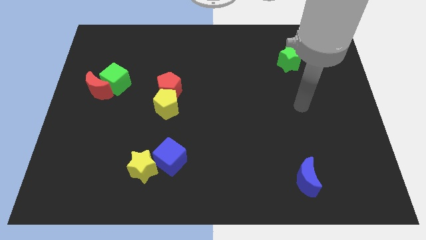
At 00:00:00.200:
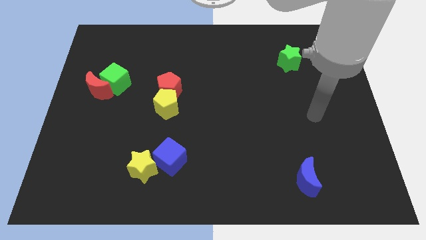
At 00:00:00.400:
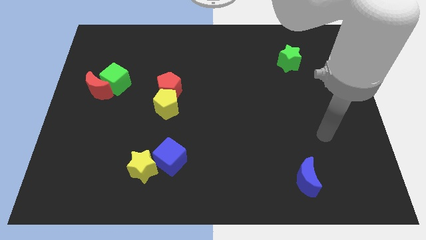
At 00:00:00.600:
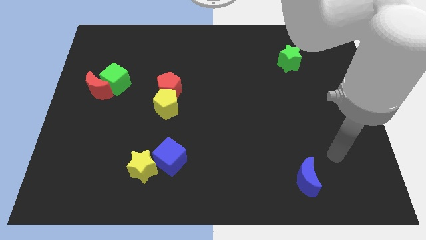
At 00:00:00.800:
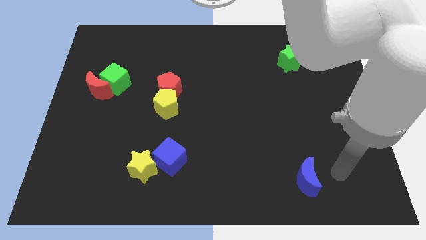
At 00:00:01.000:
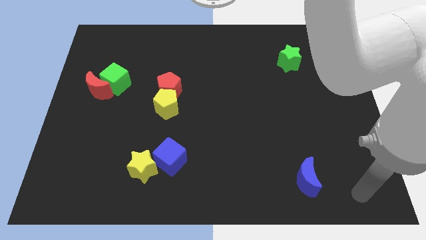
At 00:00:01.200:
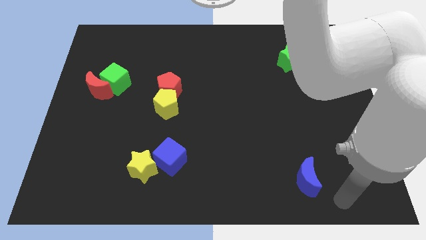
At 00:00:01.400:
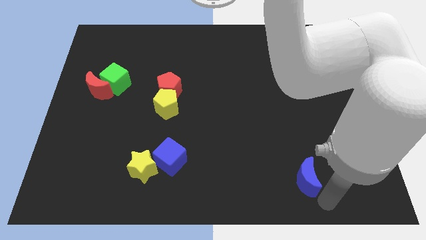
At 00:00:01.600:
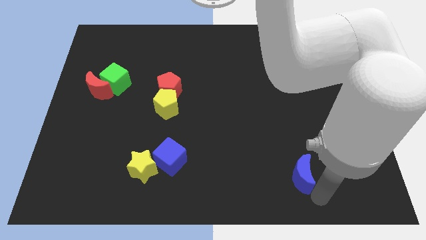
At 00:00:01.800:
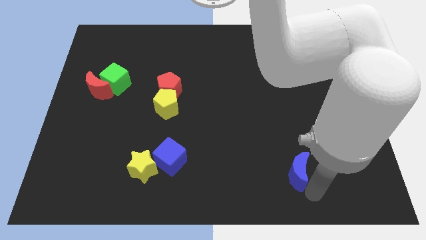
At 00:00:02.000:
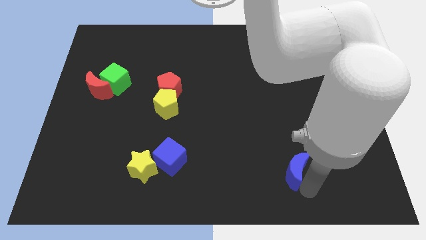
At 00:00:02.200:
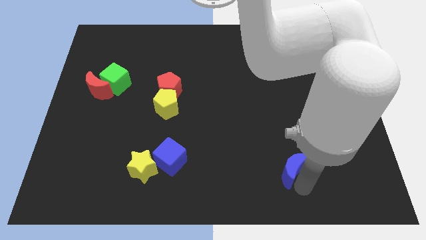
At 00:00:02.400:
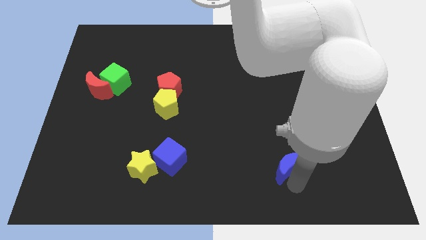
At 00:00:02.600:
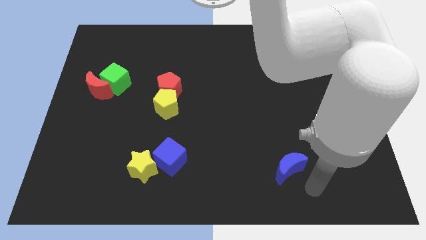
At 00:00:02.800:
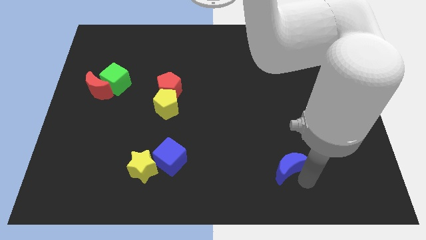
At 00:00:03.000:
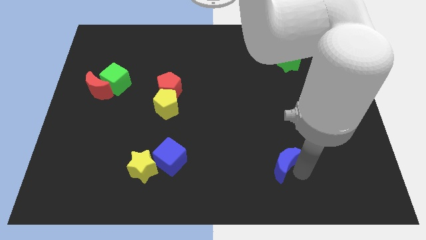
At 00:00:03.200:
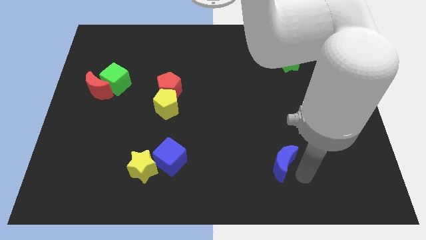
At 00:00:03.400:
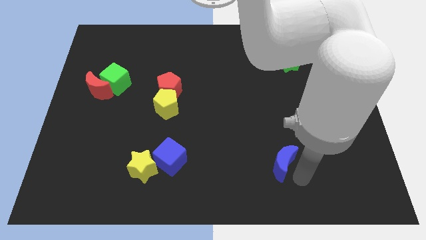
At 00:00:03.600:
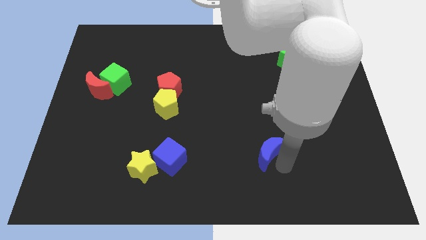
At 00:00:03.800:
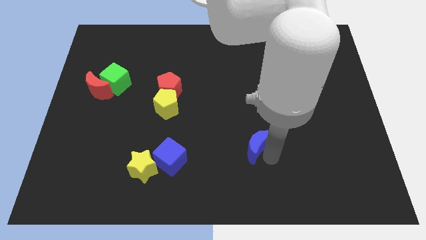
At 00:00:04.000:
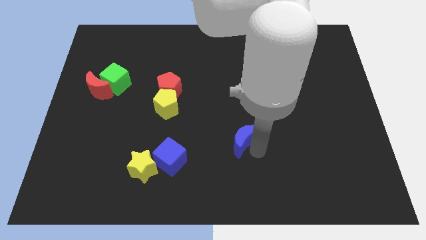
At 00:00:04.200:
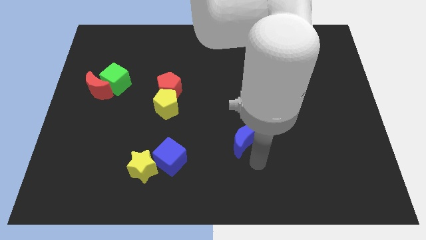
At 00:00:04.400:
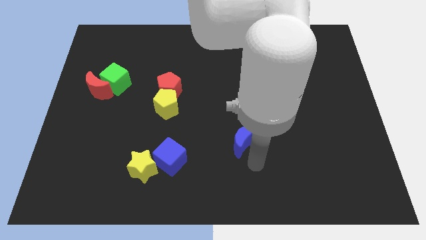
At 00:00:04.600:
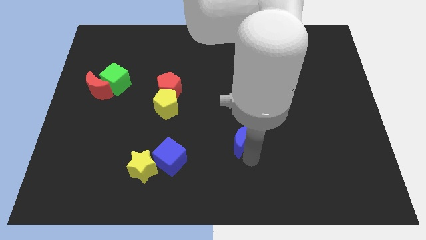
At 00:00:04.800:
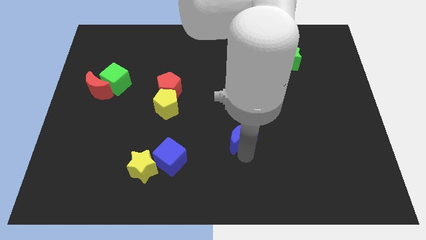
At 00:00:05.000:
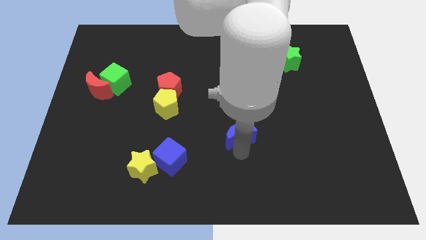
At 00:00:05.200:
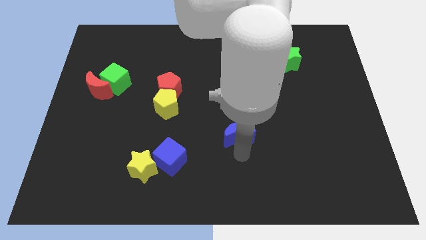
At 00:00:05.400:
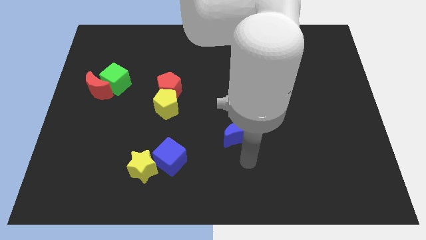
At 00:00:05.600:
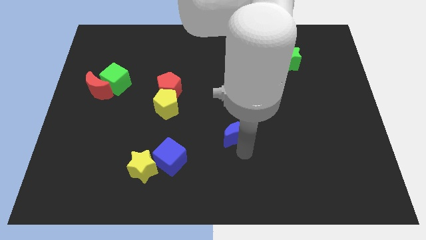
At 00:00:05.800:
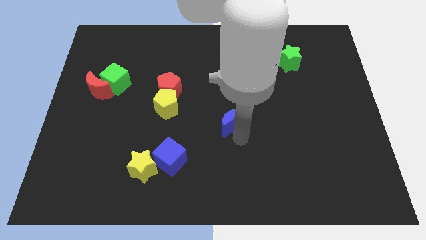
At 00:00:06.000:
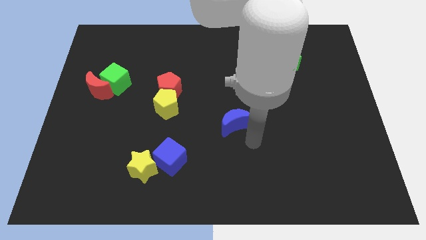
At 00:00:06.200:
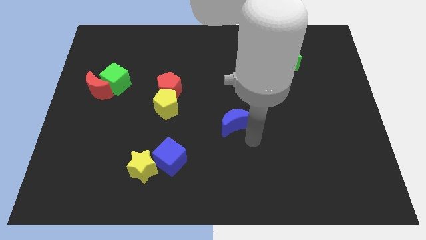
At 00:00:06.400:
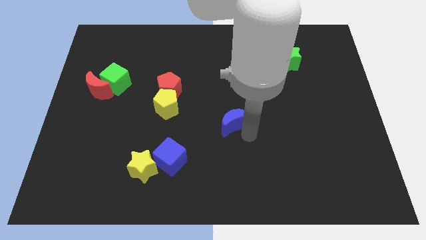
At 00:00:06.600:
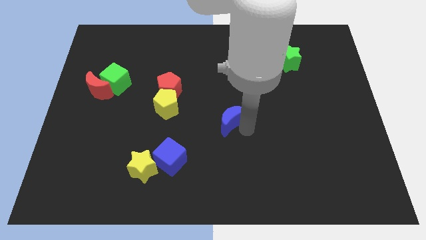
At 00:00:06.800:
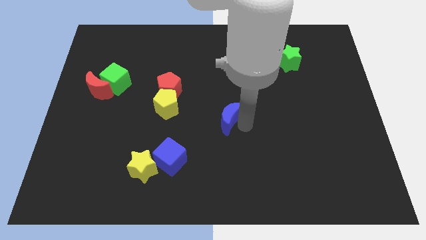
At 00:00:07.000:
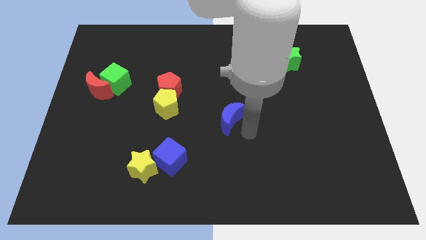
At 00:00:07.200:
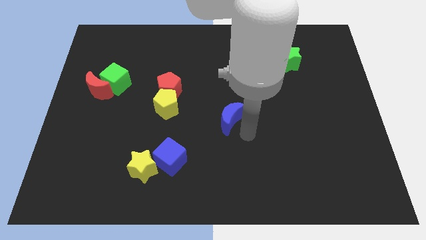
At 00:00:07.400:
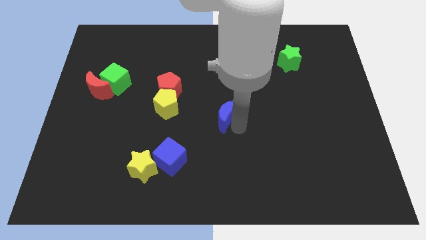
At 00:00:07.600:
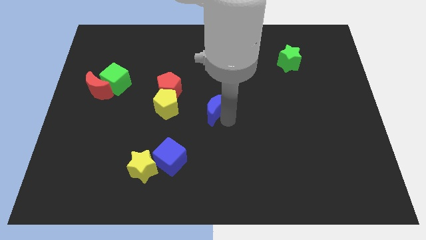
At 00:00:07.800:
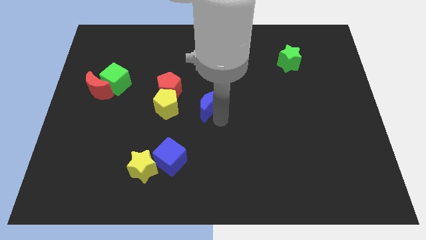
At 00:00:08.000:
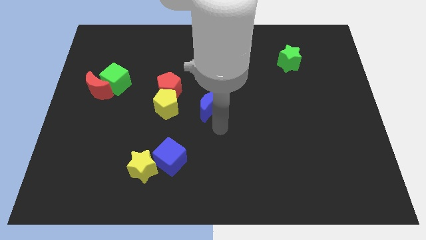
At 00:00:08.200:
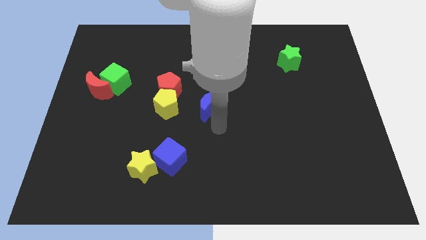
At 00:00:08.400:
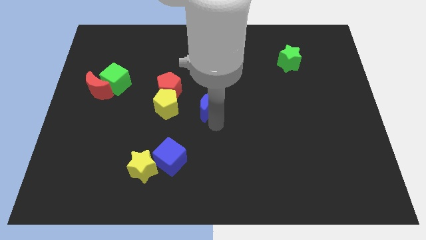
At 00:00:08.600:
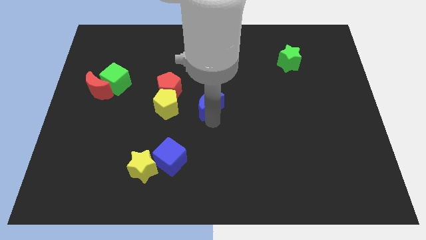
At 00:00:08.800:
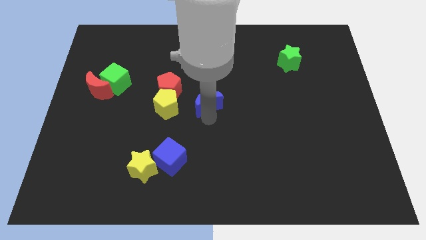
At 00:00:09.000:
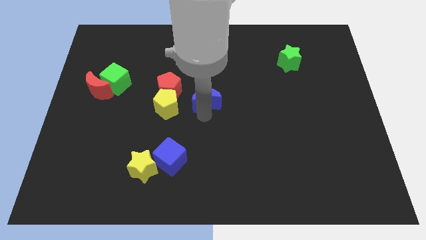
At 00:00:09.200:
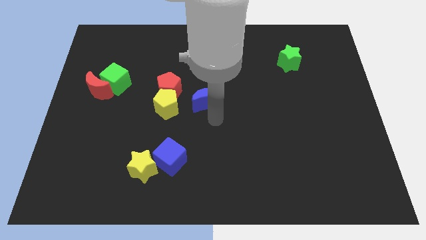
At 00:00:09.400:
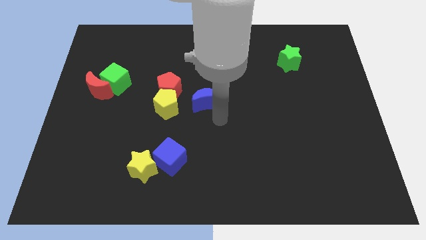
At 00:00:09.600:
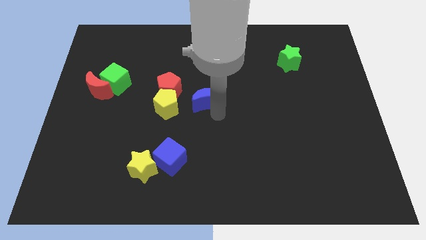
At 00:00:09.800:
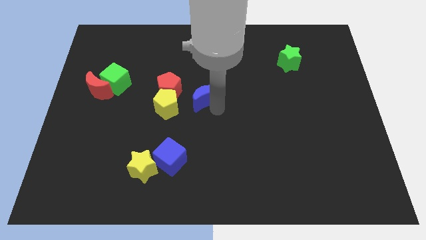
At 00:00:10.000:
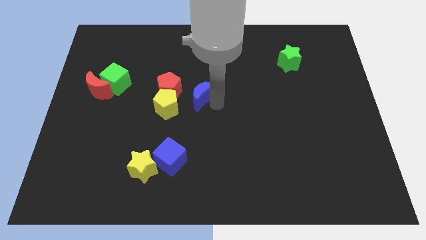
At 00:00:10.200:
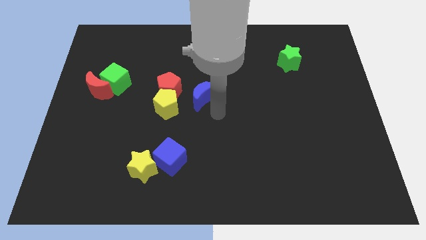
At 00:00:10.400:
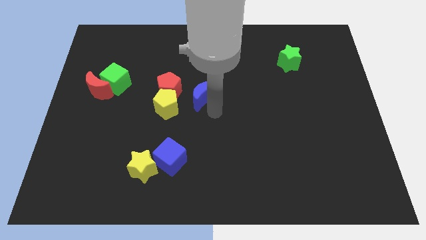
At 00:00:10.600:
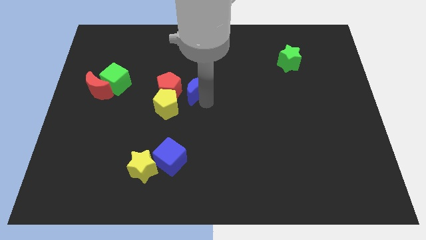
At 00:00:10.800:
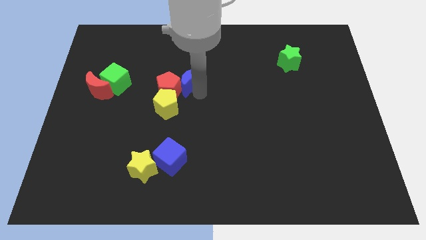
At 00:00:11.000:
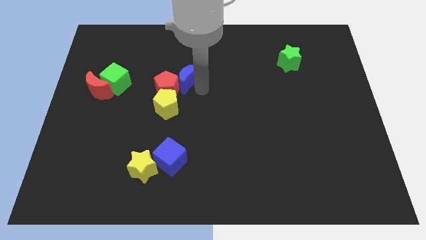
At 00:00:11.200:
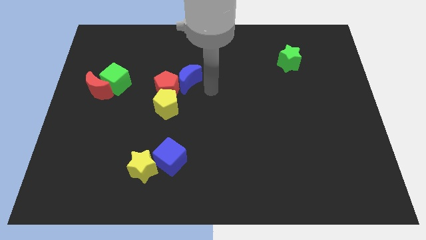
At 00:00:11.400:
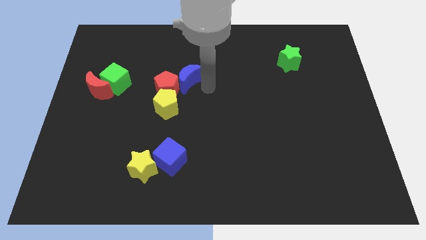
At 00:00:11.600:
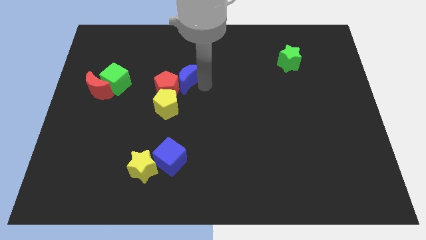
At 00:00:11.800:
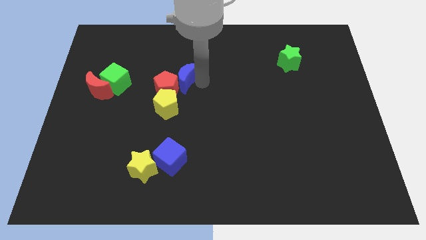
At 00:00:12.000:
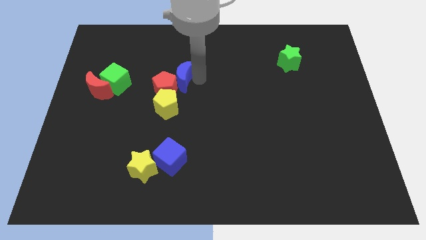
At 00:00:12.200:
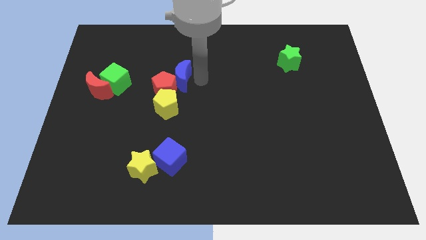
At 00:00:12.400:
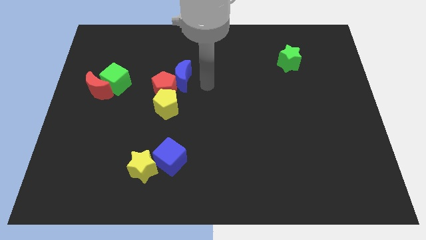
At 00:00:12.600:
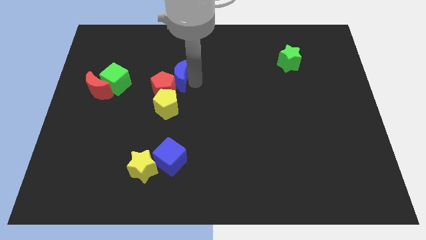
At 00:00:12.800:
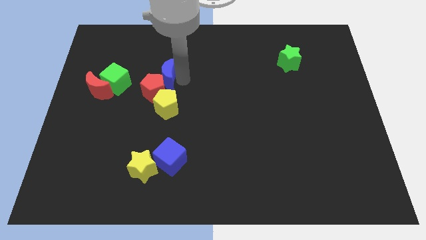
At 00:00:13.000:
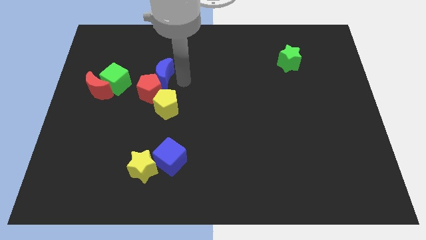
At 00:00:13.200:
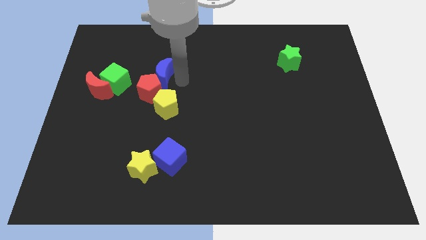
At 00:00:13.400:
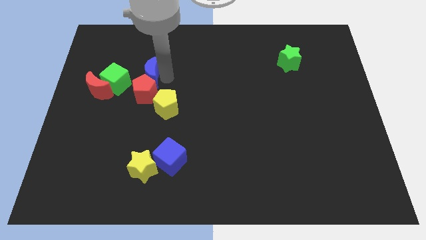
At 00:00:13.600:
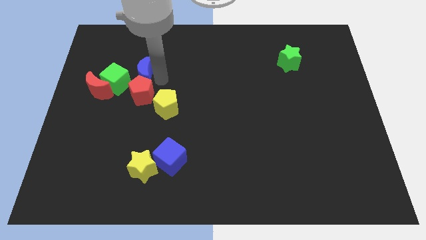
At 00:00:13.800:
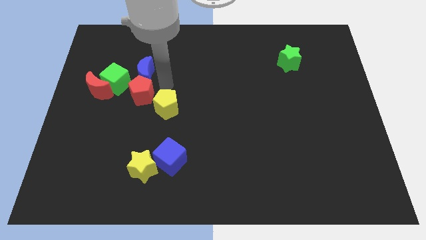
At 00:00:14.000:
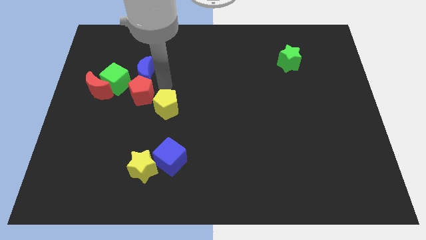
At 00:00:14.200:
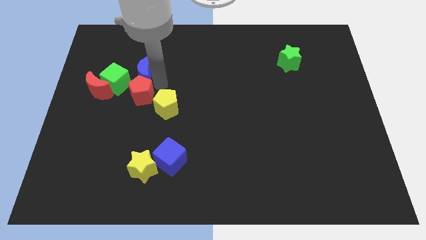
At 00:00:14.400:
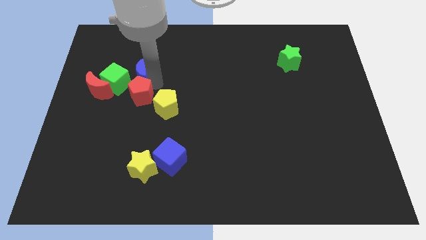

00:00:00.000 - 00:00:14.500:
put the blue moon to the top right side of the red moon
